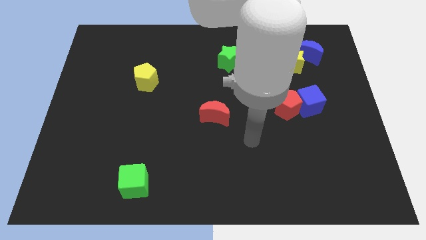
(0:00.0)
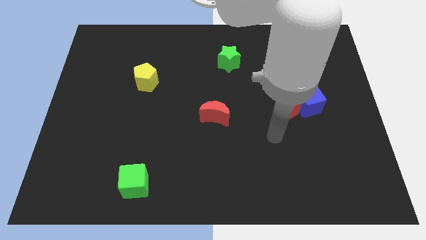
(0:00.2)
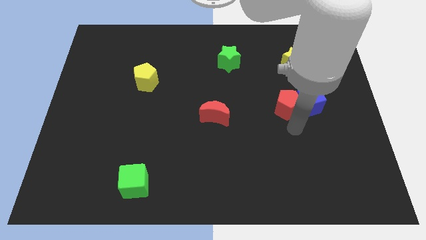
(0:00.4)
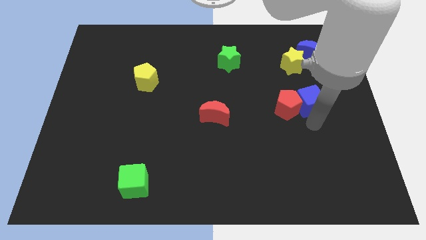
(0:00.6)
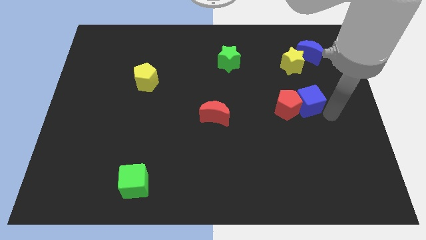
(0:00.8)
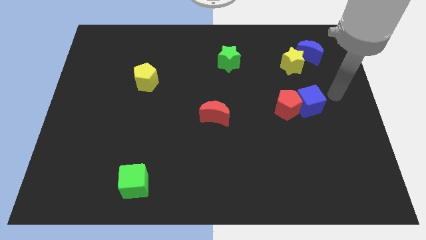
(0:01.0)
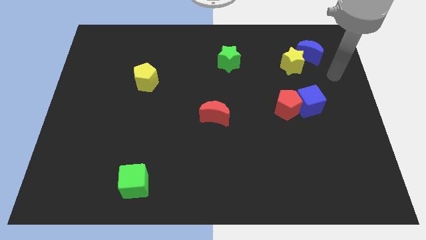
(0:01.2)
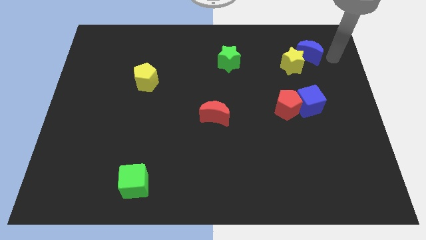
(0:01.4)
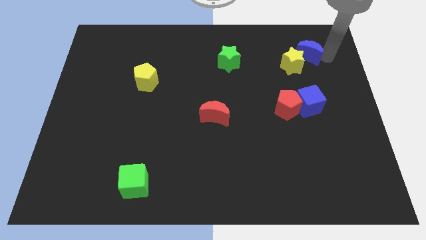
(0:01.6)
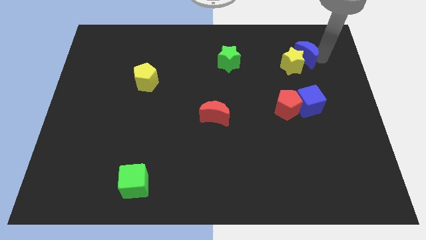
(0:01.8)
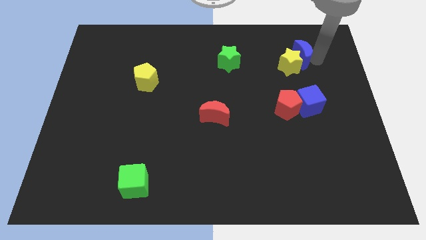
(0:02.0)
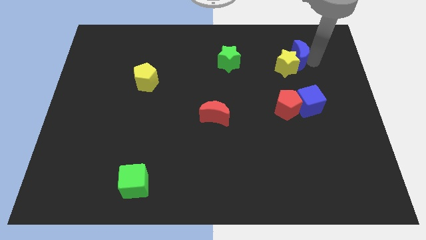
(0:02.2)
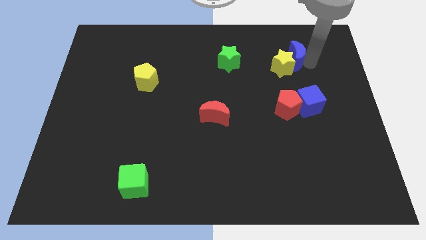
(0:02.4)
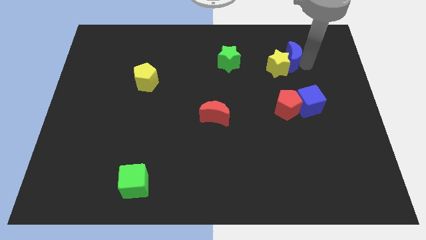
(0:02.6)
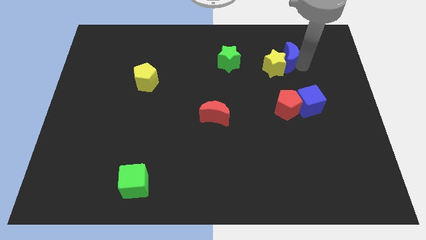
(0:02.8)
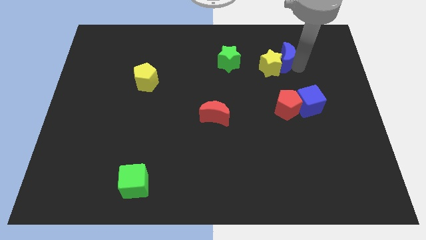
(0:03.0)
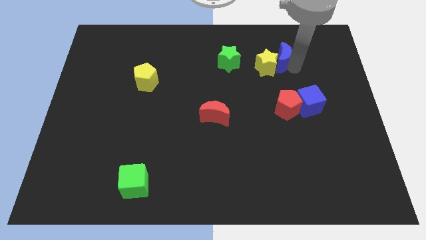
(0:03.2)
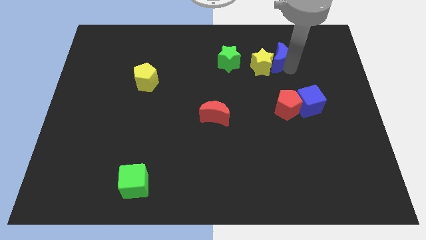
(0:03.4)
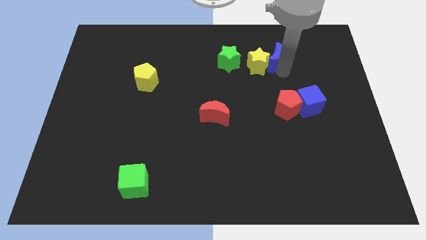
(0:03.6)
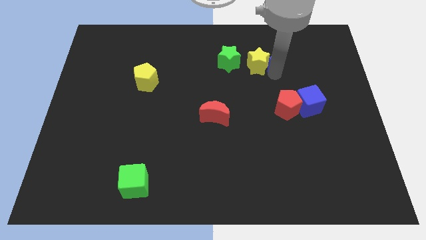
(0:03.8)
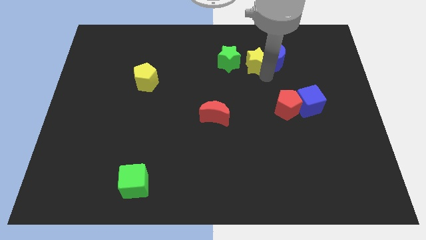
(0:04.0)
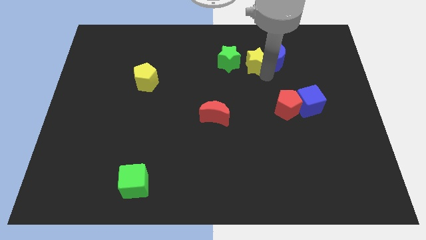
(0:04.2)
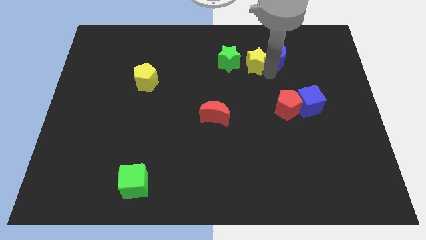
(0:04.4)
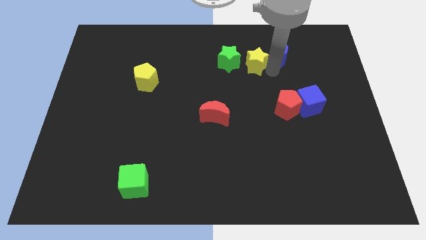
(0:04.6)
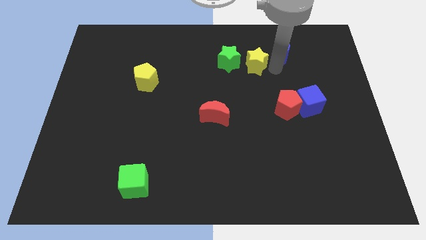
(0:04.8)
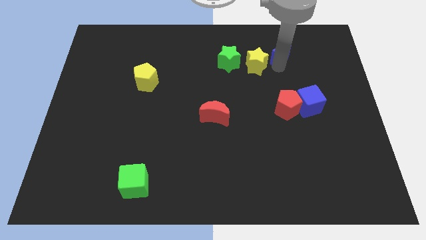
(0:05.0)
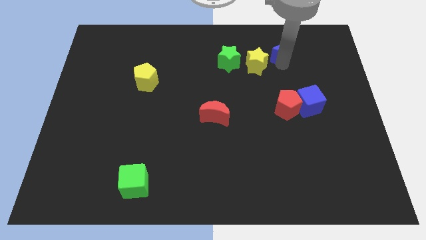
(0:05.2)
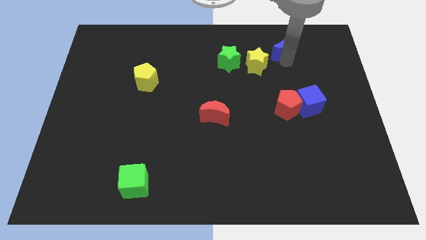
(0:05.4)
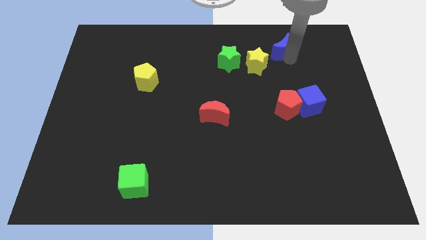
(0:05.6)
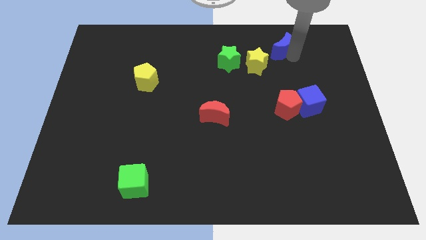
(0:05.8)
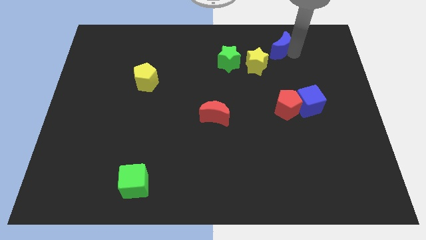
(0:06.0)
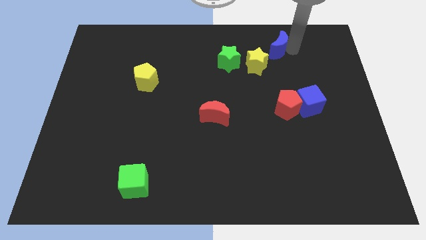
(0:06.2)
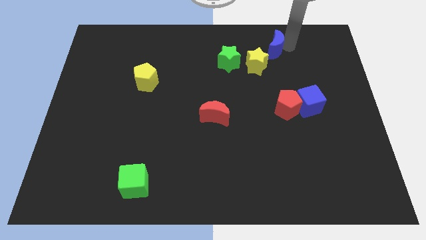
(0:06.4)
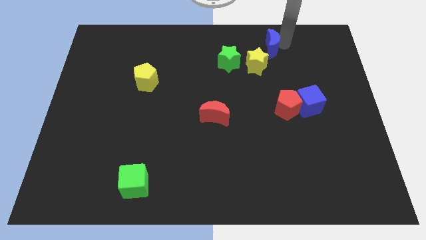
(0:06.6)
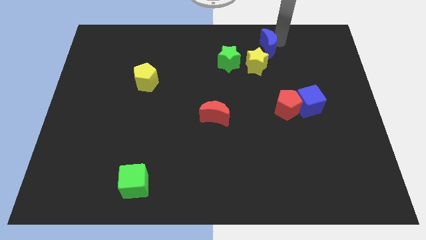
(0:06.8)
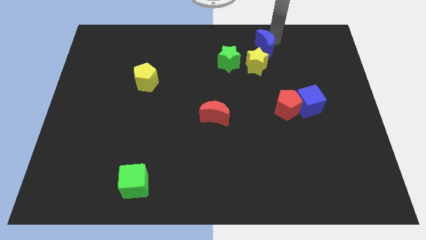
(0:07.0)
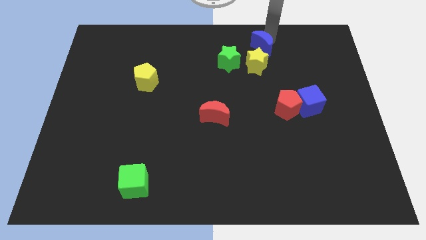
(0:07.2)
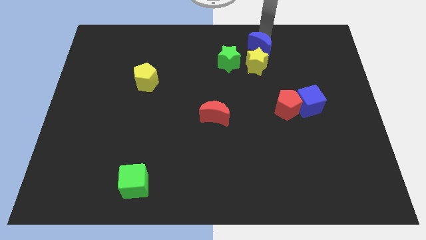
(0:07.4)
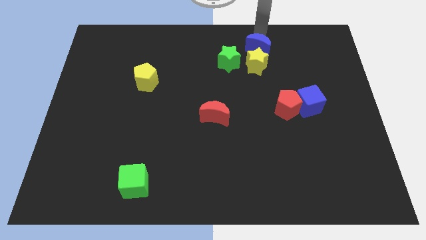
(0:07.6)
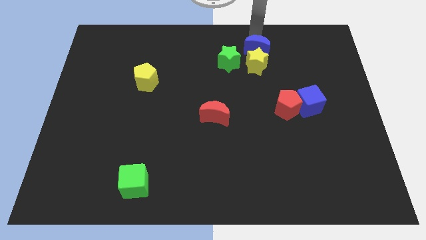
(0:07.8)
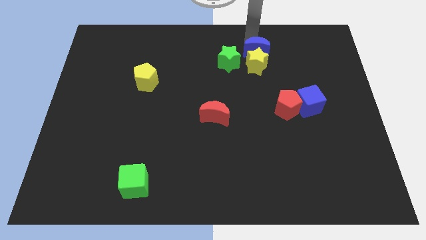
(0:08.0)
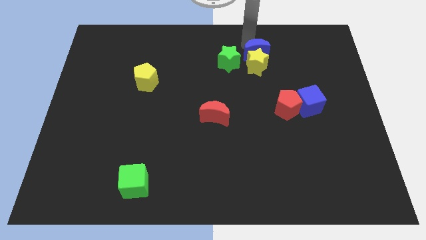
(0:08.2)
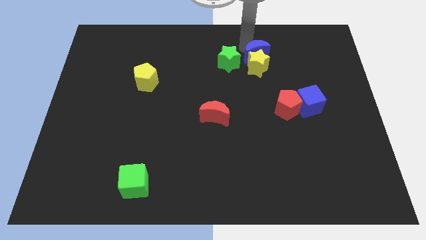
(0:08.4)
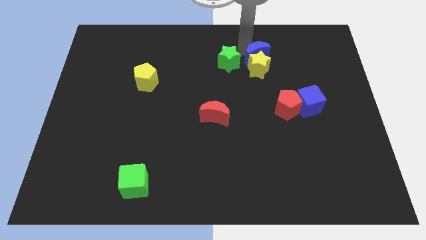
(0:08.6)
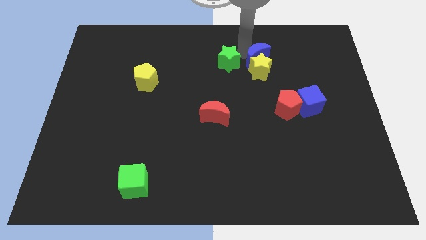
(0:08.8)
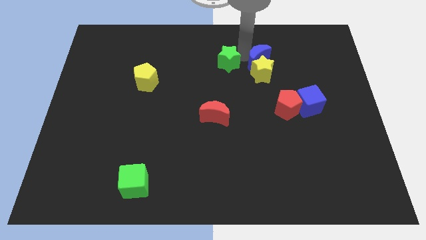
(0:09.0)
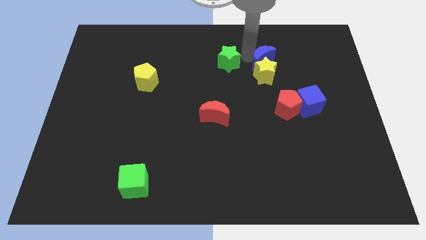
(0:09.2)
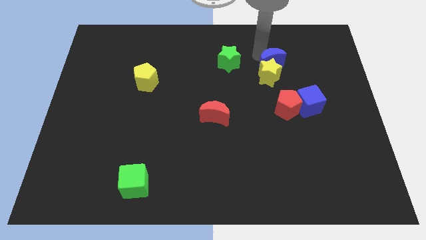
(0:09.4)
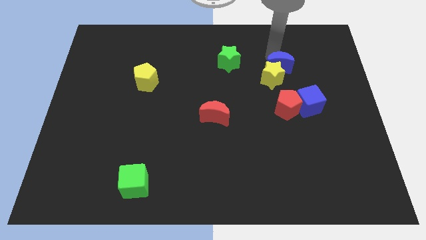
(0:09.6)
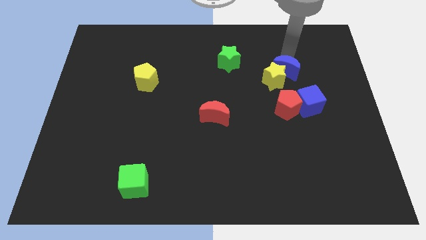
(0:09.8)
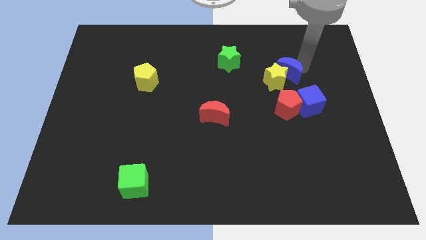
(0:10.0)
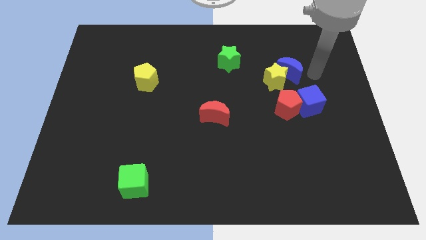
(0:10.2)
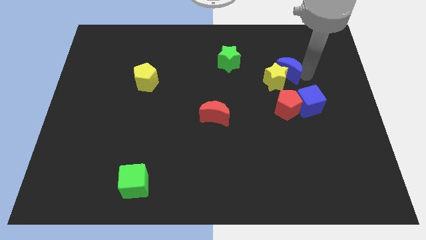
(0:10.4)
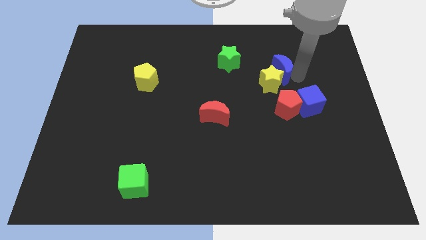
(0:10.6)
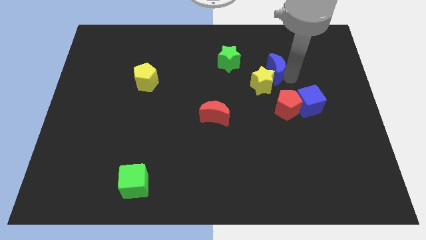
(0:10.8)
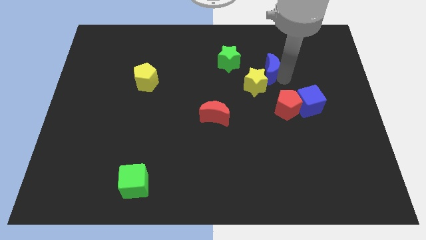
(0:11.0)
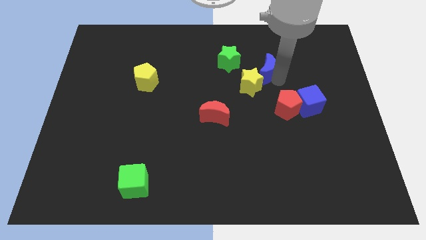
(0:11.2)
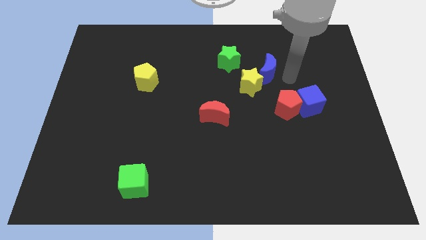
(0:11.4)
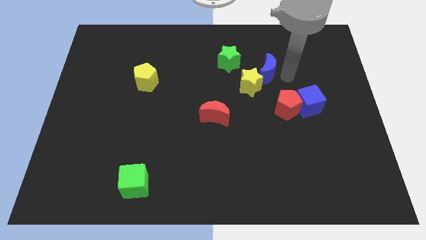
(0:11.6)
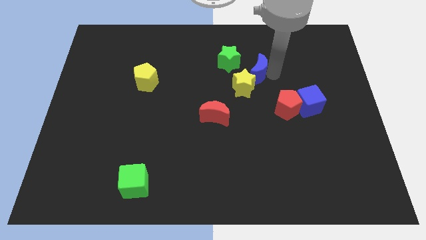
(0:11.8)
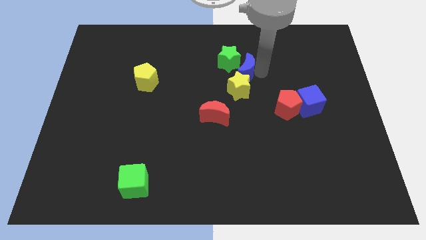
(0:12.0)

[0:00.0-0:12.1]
move the blue moon to the center of the board

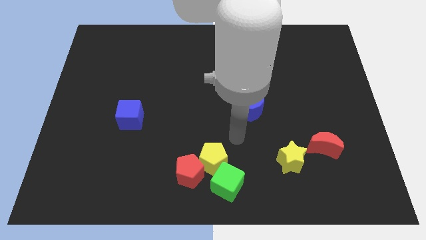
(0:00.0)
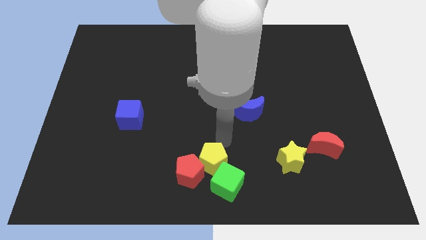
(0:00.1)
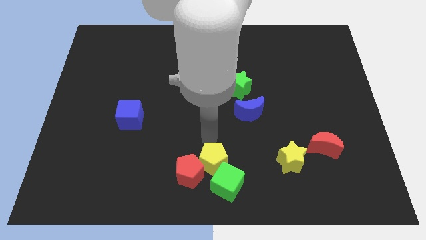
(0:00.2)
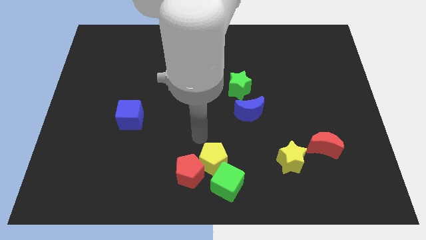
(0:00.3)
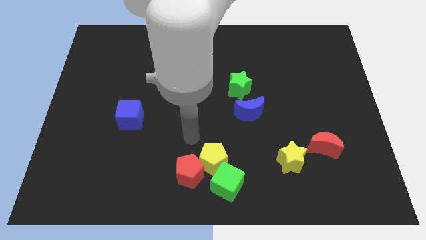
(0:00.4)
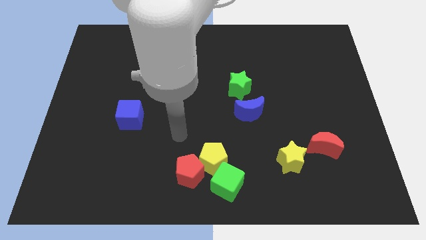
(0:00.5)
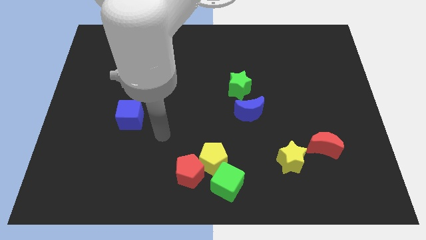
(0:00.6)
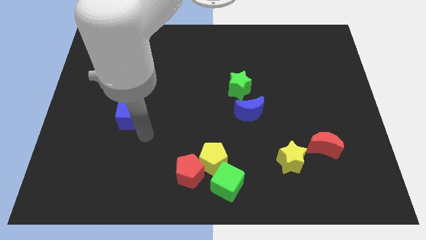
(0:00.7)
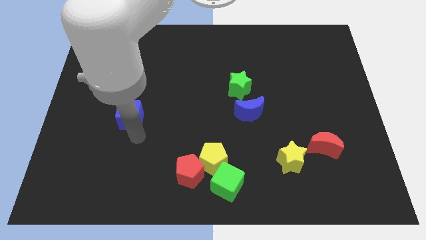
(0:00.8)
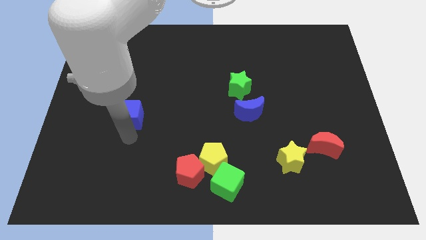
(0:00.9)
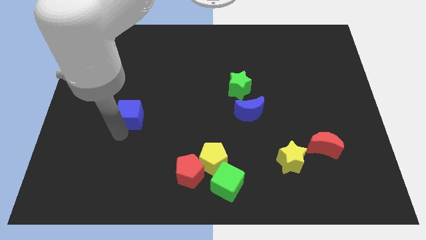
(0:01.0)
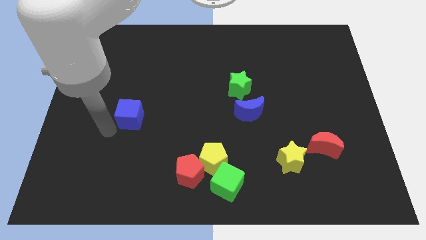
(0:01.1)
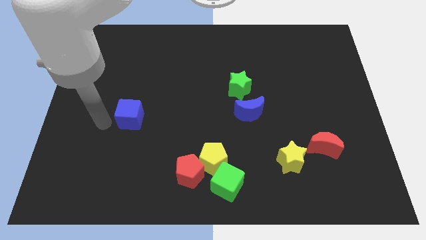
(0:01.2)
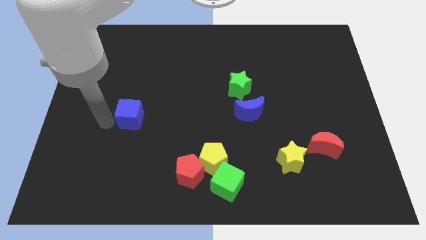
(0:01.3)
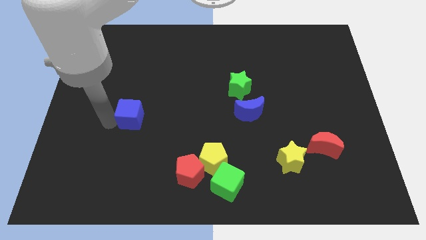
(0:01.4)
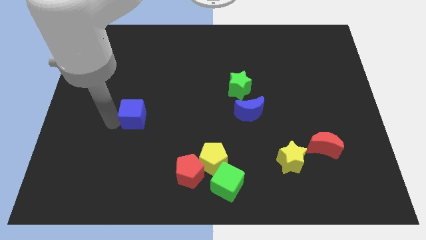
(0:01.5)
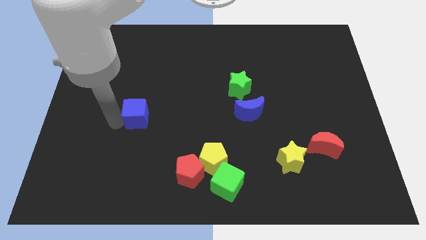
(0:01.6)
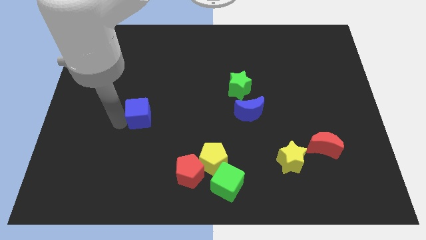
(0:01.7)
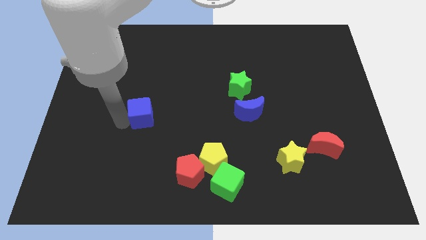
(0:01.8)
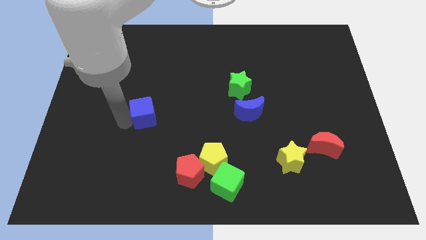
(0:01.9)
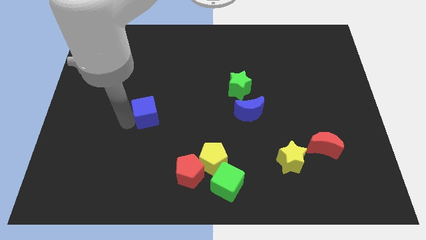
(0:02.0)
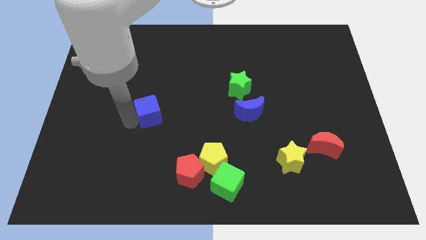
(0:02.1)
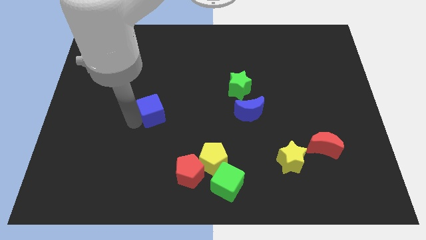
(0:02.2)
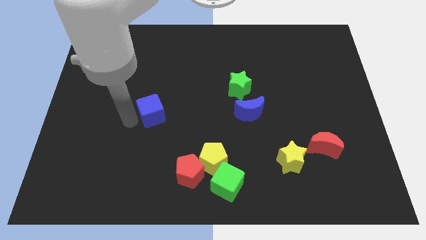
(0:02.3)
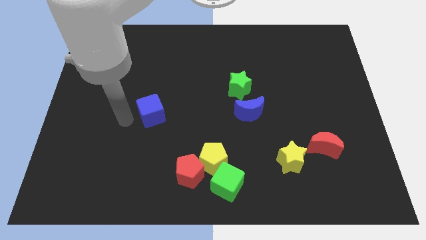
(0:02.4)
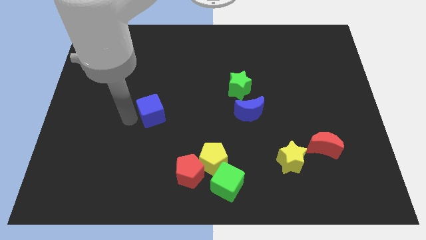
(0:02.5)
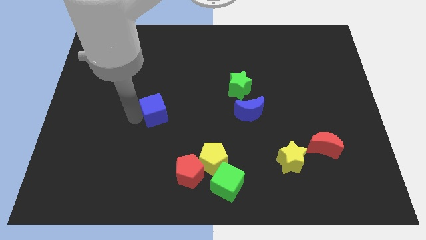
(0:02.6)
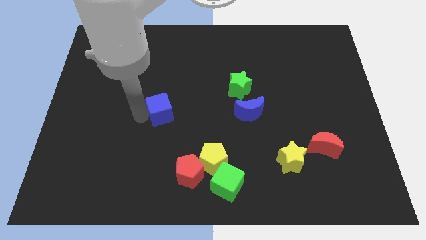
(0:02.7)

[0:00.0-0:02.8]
push the blue cube to the center
